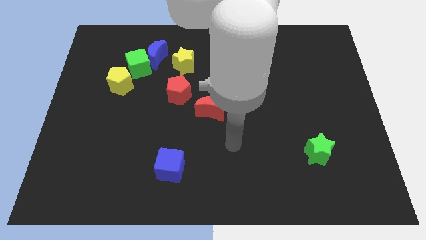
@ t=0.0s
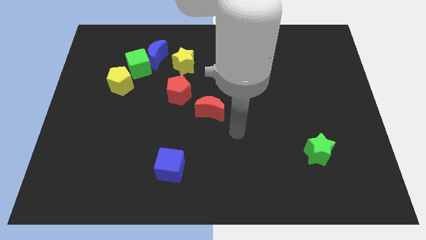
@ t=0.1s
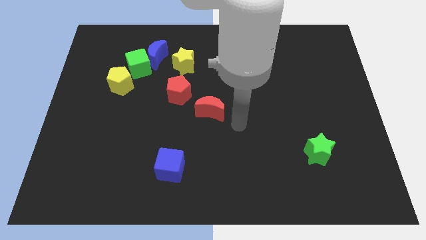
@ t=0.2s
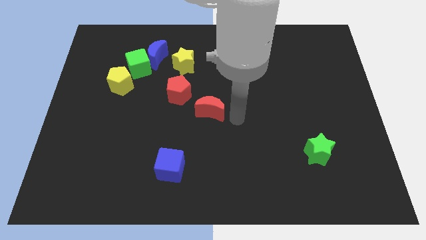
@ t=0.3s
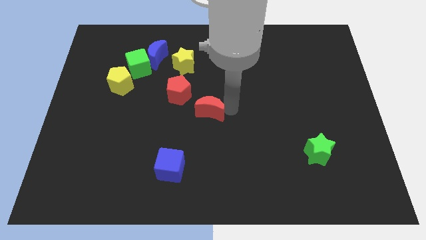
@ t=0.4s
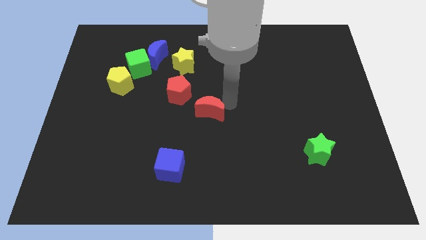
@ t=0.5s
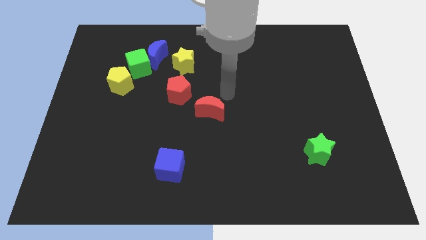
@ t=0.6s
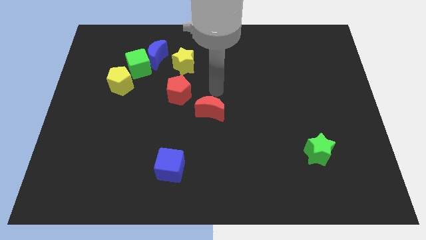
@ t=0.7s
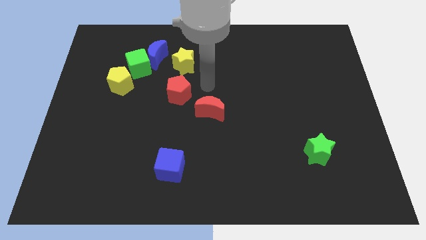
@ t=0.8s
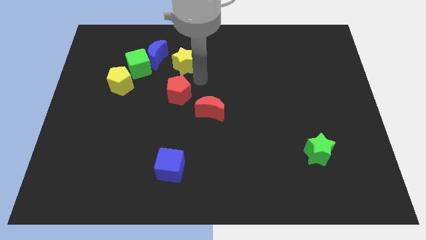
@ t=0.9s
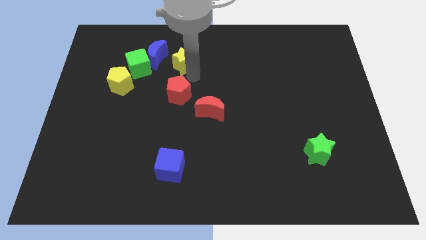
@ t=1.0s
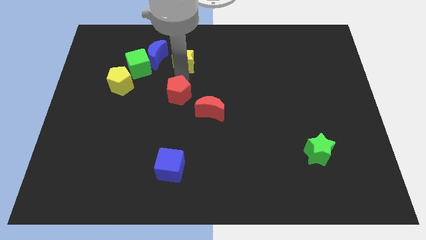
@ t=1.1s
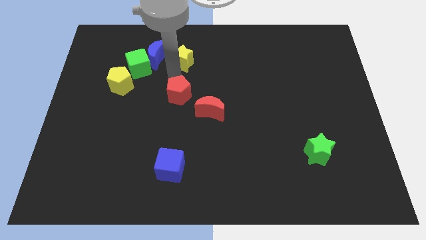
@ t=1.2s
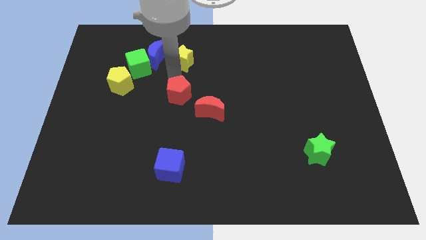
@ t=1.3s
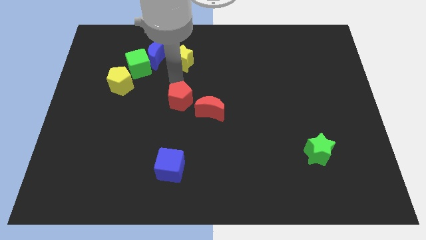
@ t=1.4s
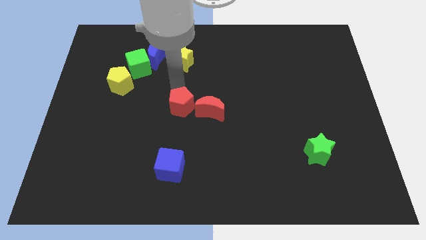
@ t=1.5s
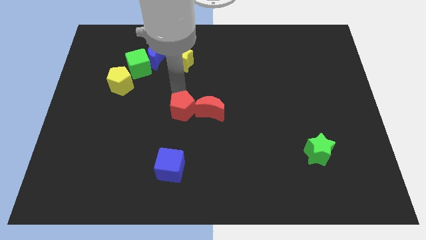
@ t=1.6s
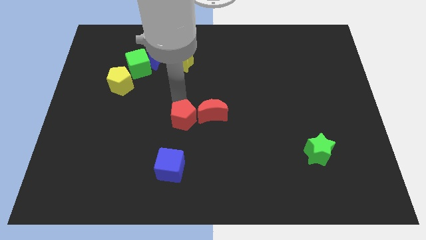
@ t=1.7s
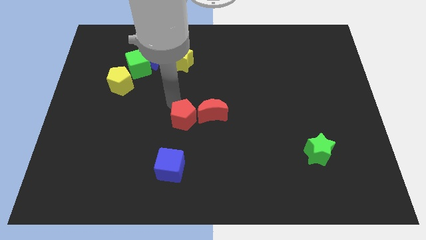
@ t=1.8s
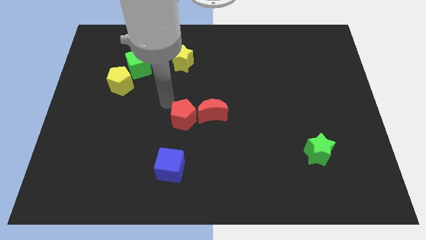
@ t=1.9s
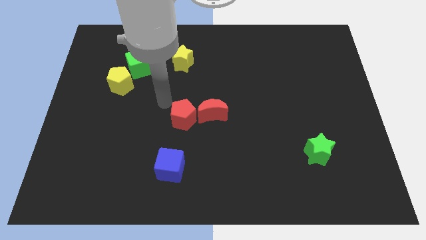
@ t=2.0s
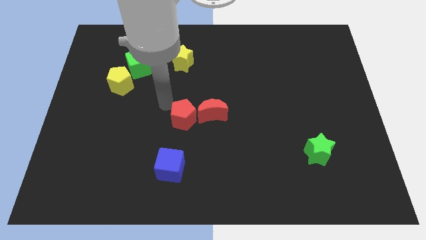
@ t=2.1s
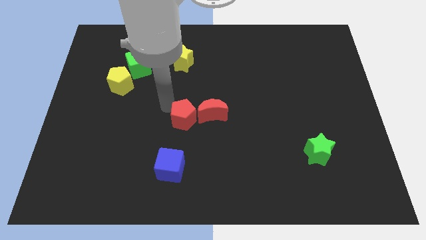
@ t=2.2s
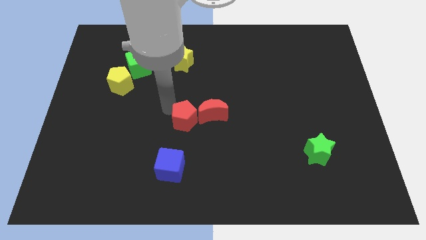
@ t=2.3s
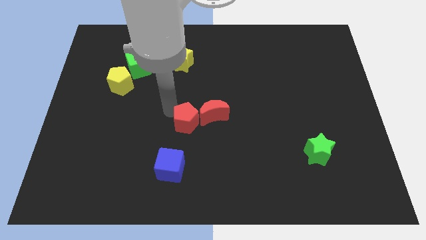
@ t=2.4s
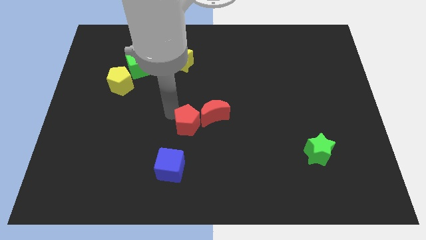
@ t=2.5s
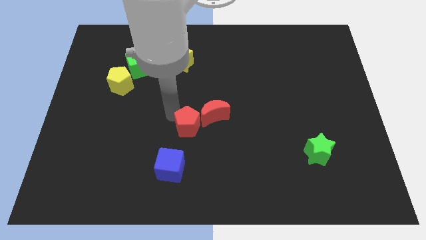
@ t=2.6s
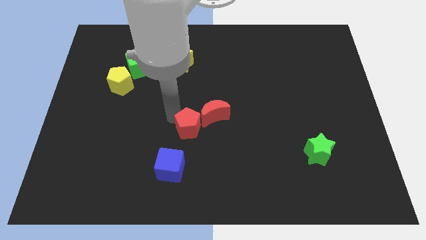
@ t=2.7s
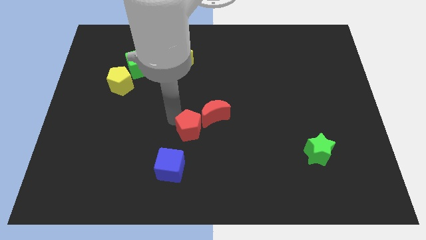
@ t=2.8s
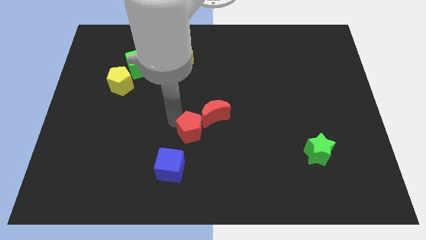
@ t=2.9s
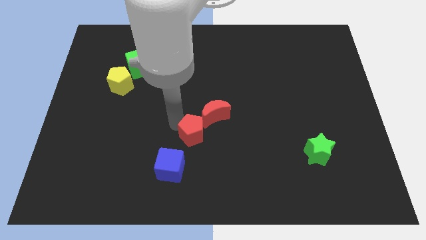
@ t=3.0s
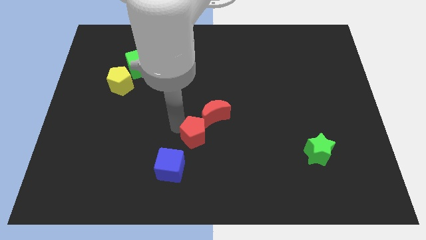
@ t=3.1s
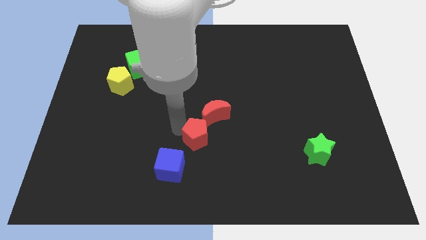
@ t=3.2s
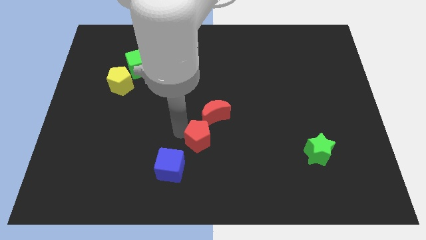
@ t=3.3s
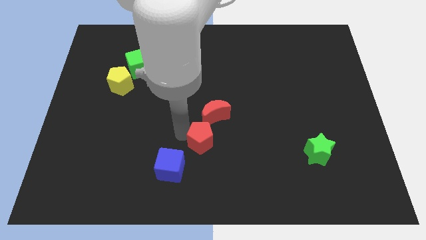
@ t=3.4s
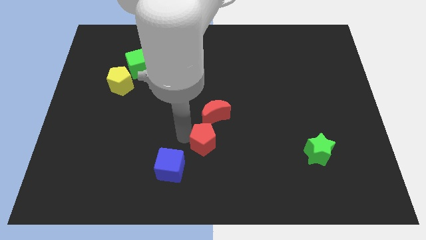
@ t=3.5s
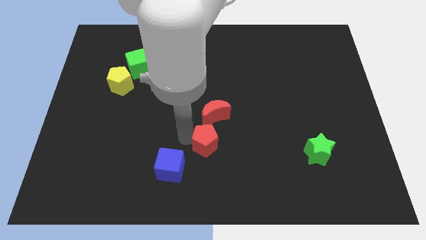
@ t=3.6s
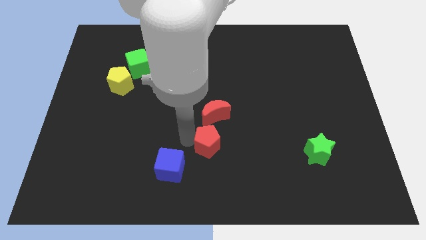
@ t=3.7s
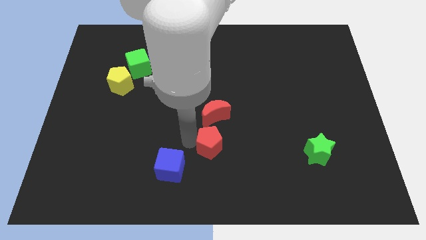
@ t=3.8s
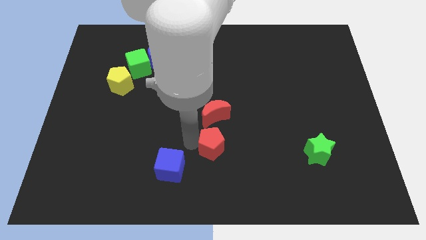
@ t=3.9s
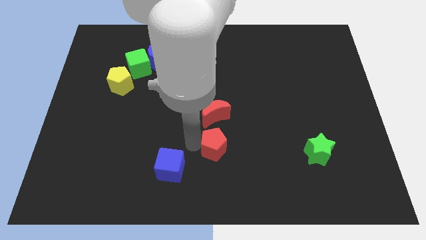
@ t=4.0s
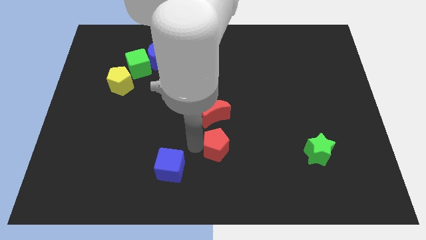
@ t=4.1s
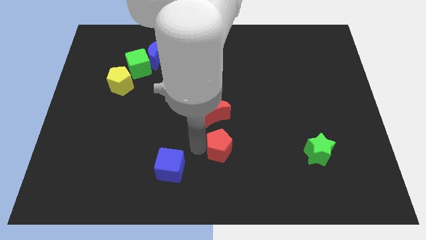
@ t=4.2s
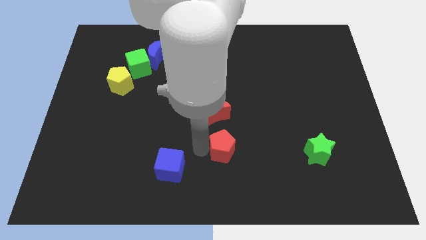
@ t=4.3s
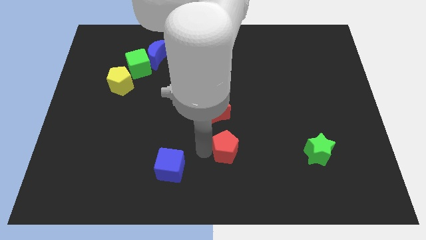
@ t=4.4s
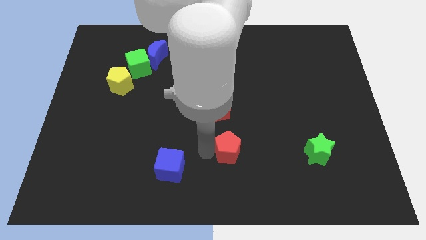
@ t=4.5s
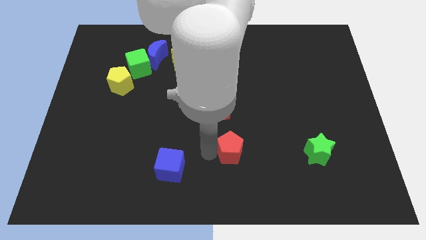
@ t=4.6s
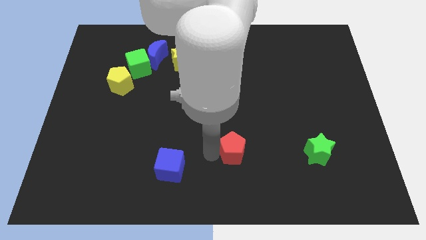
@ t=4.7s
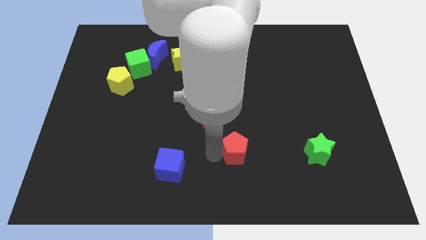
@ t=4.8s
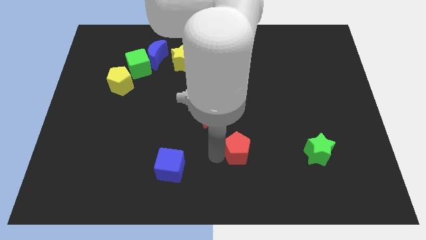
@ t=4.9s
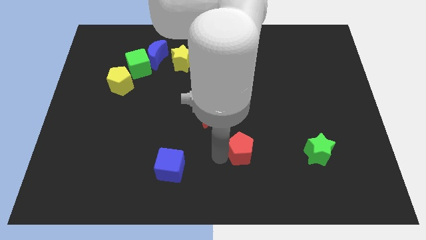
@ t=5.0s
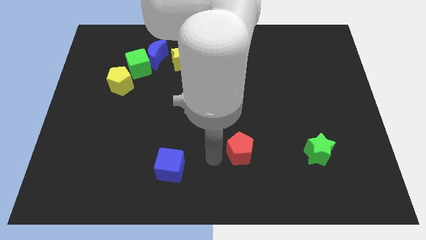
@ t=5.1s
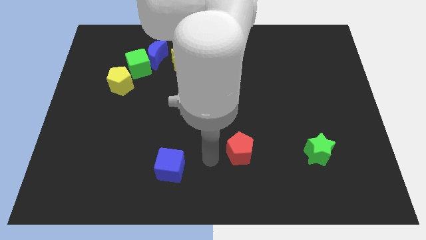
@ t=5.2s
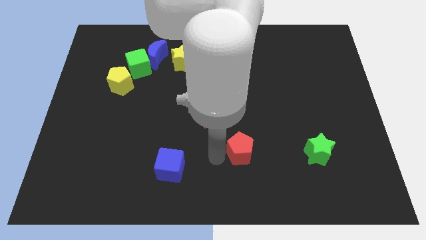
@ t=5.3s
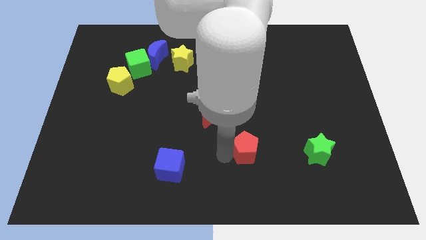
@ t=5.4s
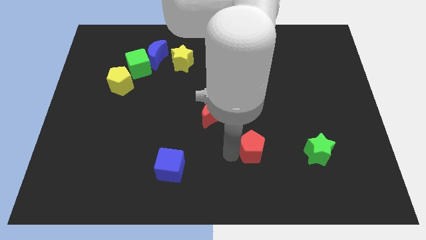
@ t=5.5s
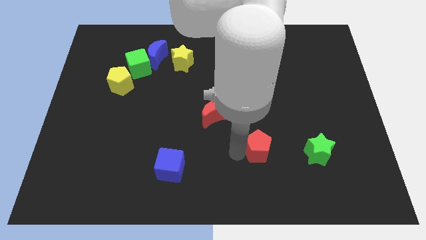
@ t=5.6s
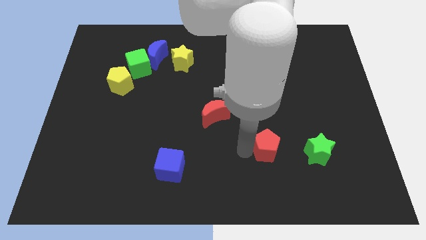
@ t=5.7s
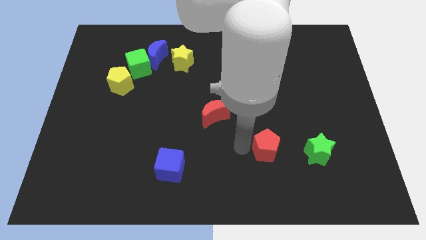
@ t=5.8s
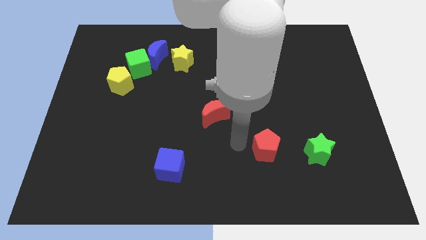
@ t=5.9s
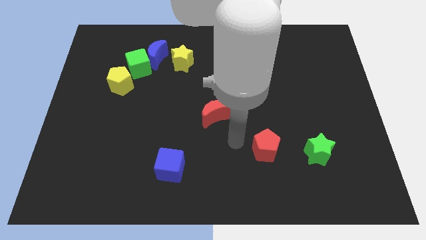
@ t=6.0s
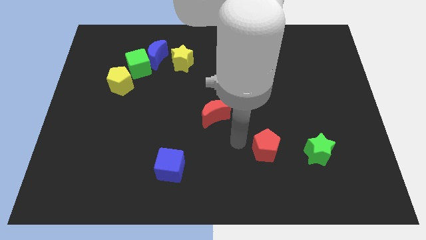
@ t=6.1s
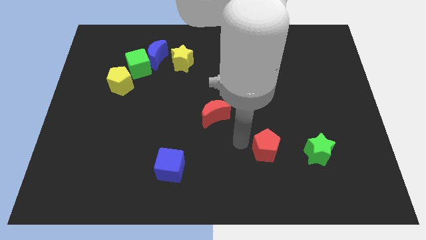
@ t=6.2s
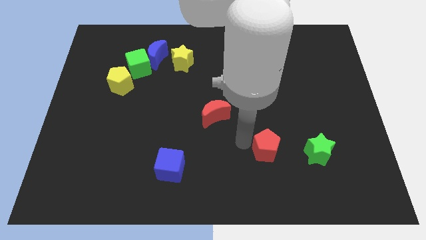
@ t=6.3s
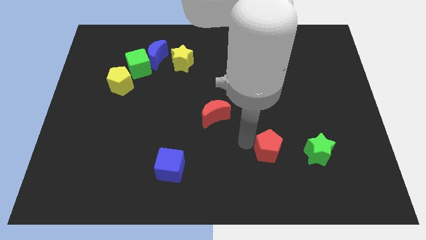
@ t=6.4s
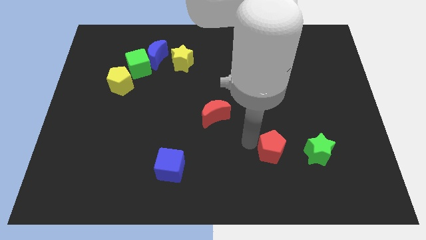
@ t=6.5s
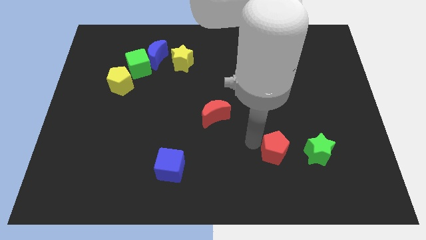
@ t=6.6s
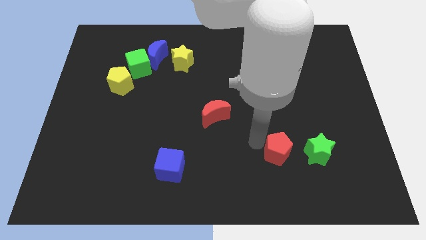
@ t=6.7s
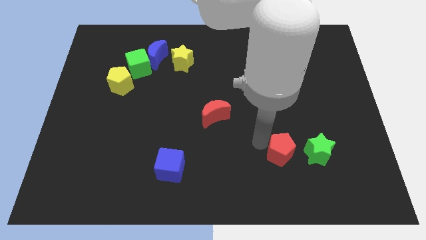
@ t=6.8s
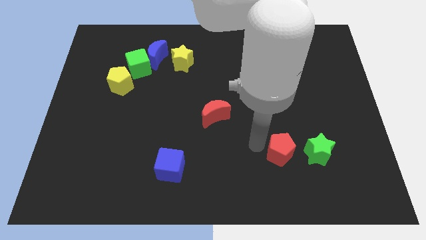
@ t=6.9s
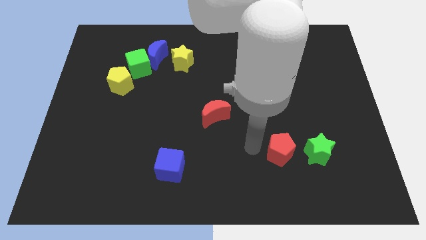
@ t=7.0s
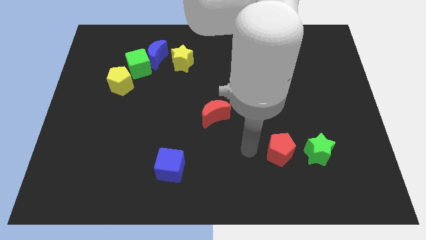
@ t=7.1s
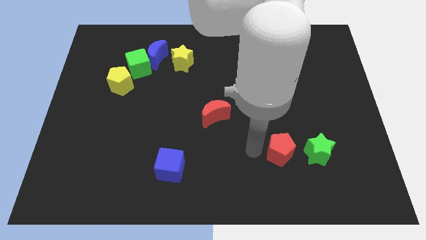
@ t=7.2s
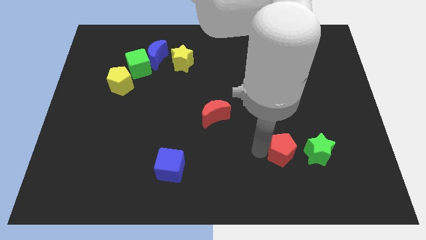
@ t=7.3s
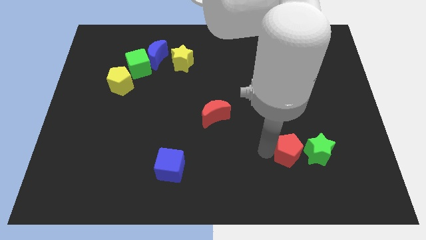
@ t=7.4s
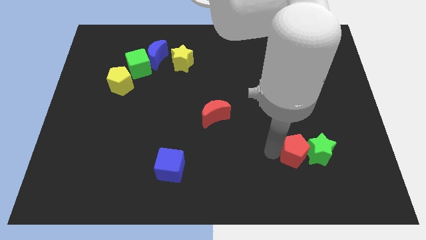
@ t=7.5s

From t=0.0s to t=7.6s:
push the red pentagon next to the green star
